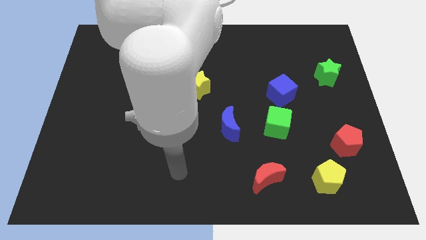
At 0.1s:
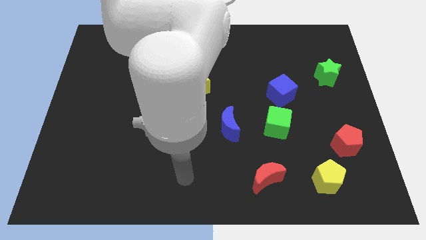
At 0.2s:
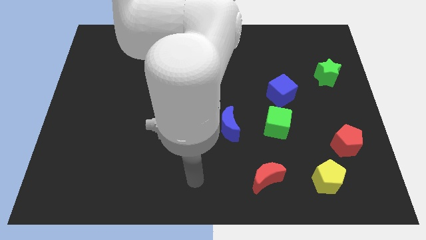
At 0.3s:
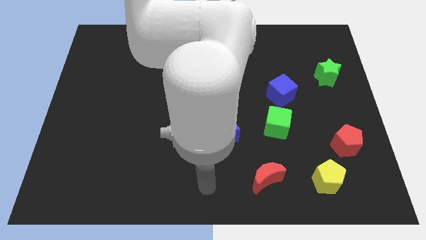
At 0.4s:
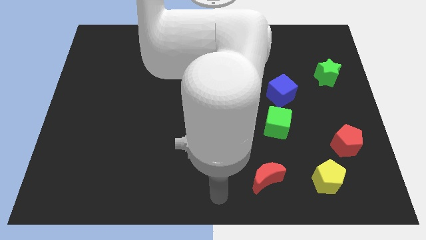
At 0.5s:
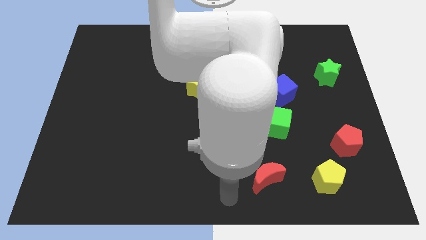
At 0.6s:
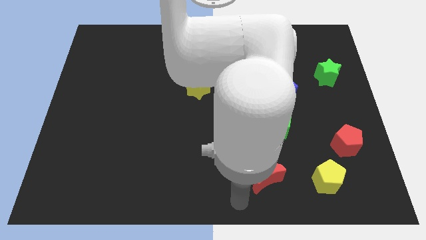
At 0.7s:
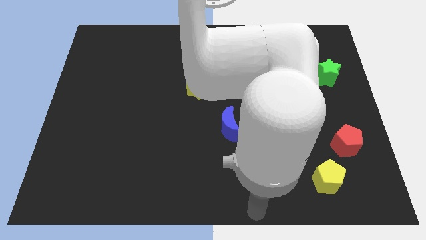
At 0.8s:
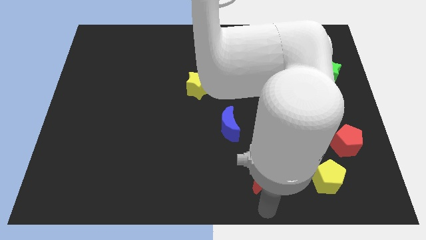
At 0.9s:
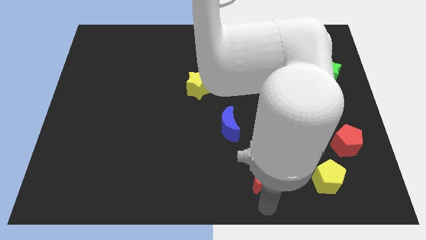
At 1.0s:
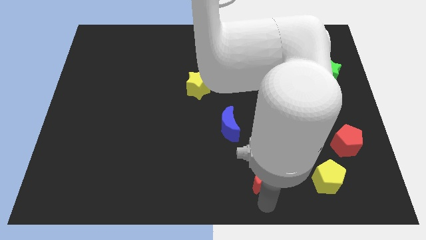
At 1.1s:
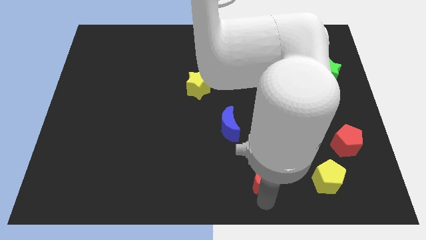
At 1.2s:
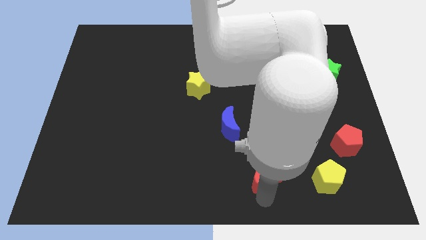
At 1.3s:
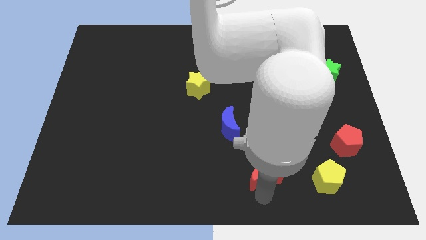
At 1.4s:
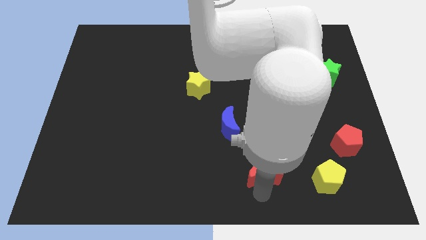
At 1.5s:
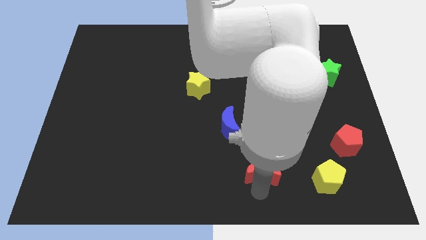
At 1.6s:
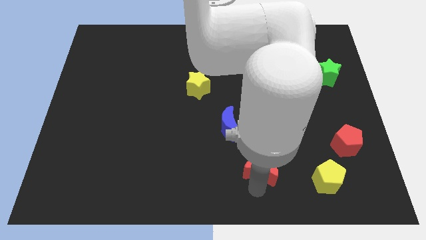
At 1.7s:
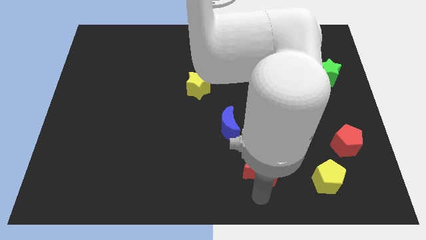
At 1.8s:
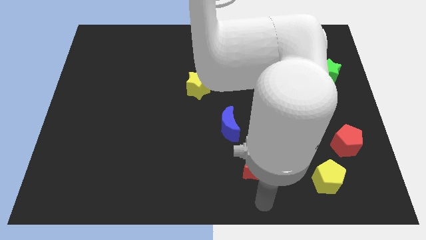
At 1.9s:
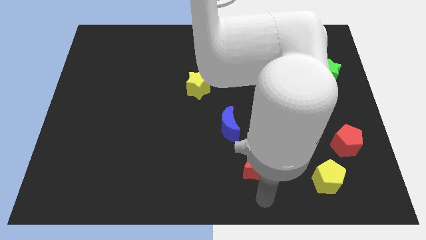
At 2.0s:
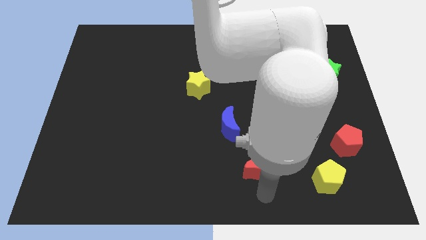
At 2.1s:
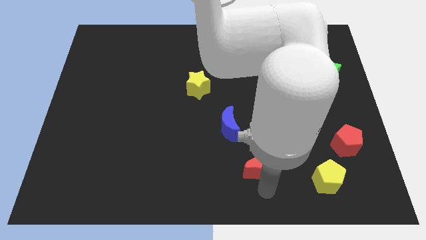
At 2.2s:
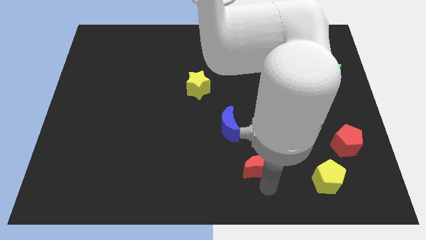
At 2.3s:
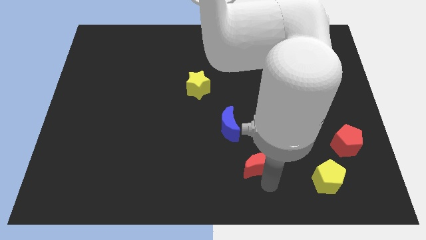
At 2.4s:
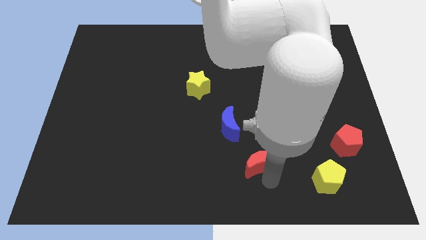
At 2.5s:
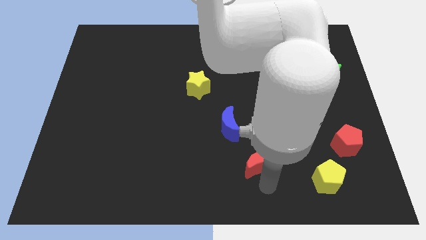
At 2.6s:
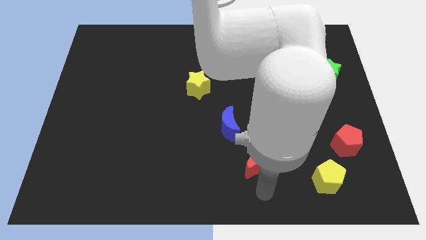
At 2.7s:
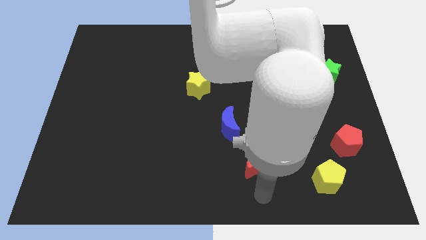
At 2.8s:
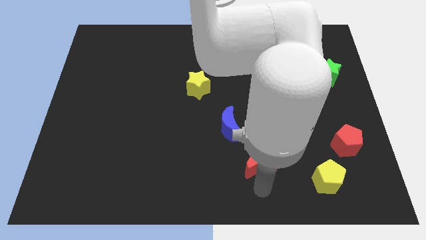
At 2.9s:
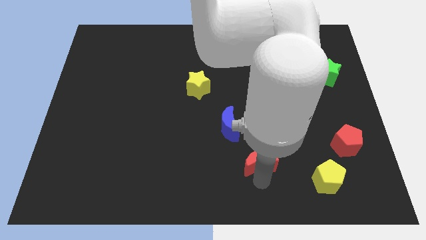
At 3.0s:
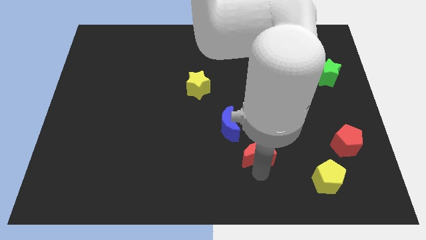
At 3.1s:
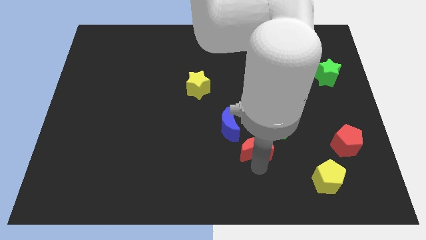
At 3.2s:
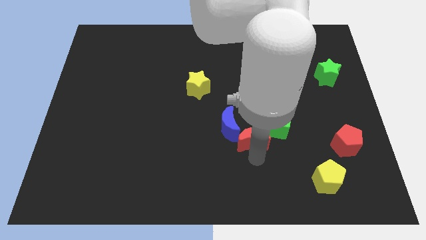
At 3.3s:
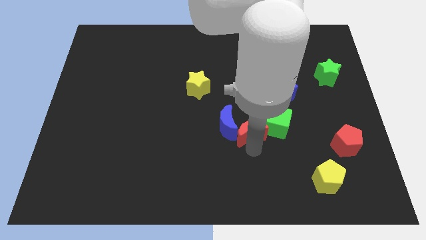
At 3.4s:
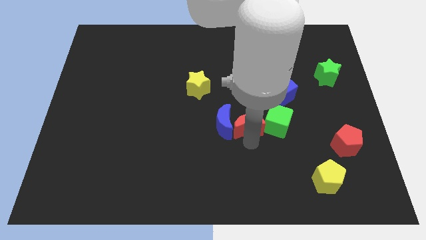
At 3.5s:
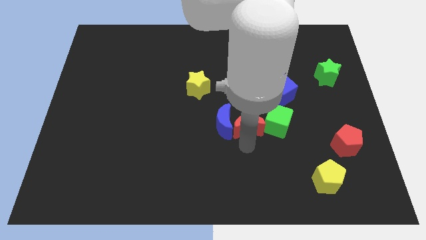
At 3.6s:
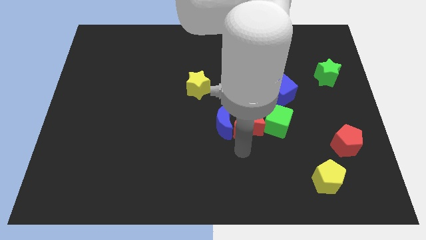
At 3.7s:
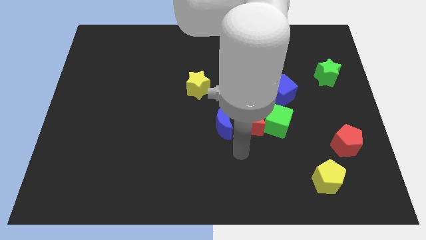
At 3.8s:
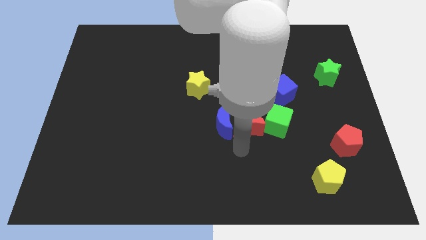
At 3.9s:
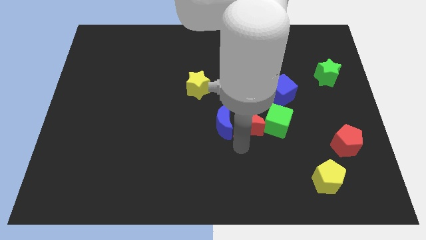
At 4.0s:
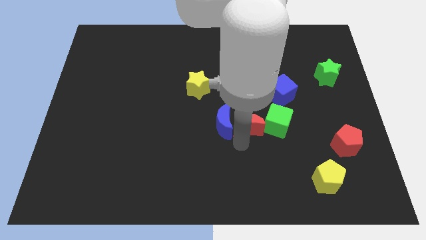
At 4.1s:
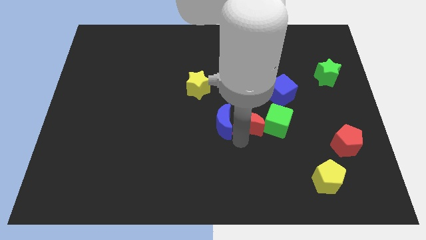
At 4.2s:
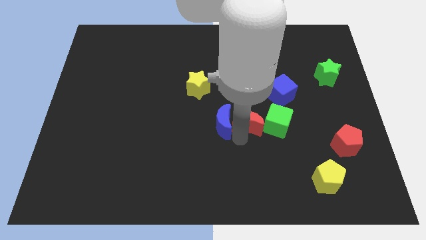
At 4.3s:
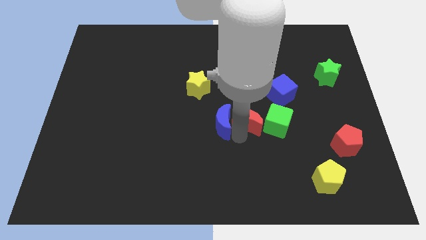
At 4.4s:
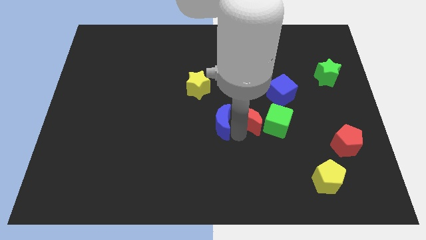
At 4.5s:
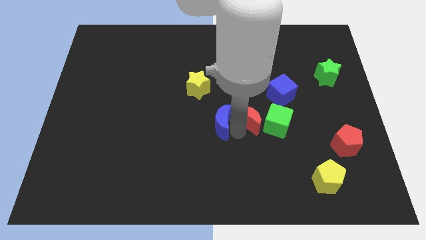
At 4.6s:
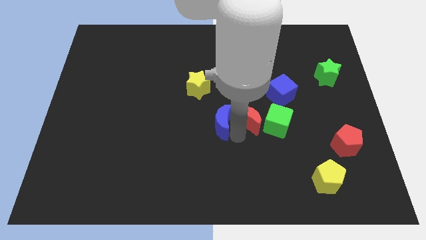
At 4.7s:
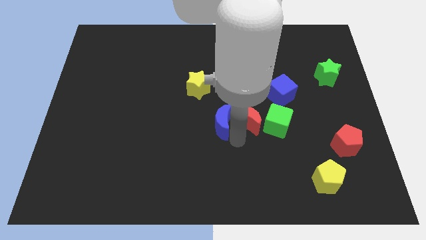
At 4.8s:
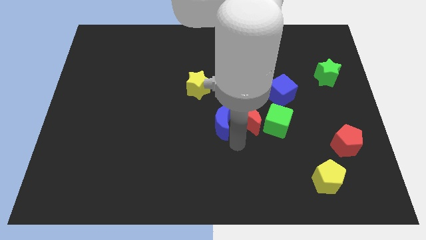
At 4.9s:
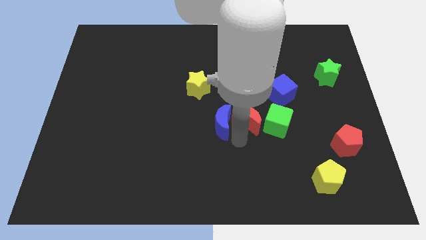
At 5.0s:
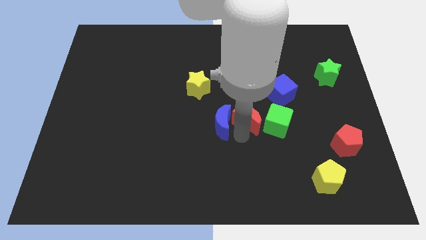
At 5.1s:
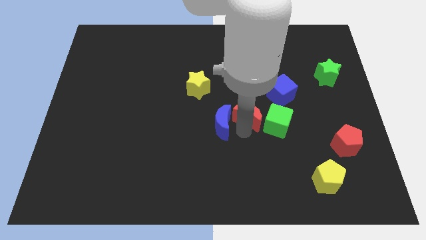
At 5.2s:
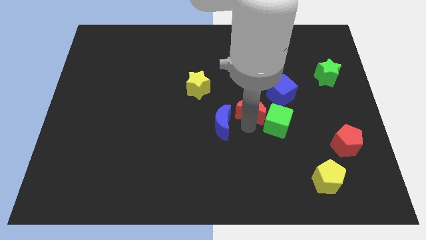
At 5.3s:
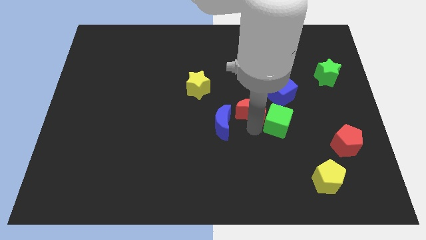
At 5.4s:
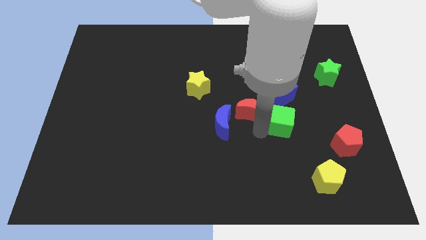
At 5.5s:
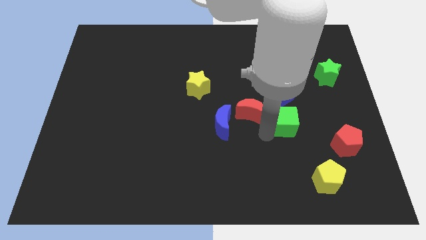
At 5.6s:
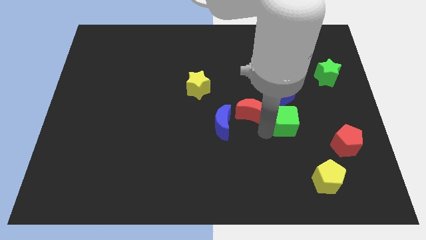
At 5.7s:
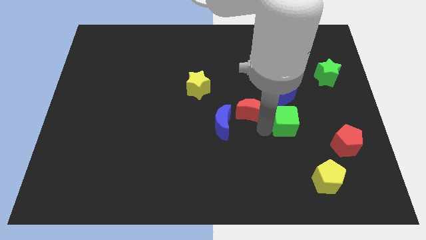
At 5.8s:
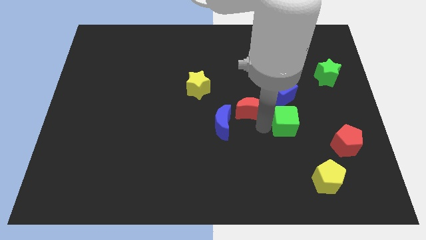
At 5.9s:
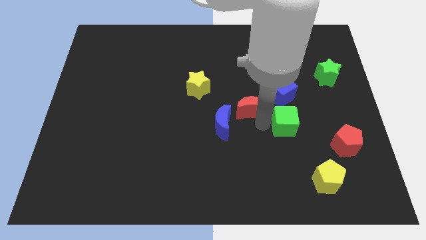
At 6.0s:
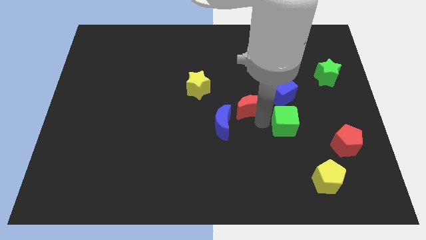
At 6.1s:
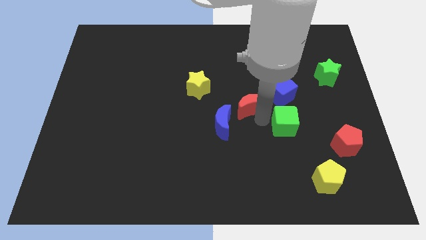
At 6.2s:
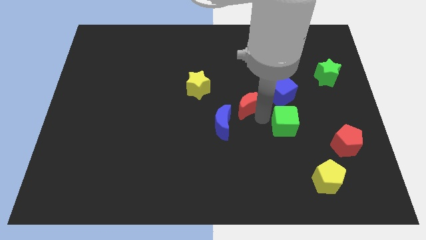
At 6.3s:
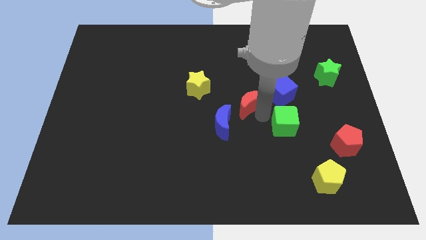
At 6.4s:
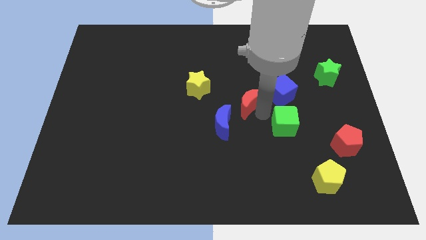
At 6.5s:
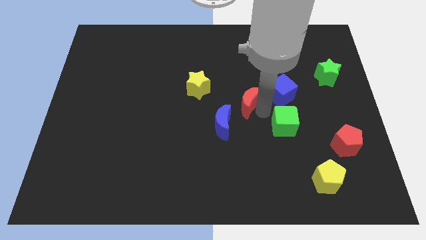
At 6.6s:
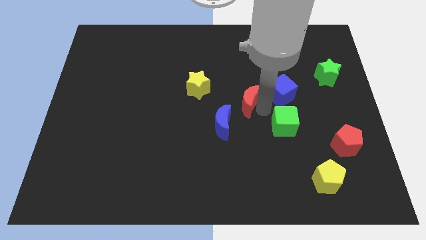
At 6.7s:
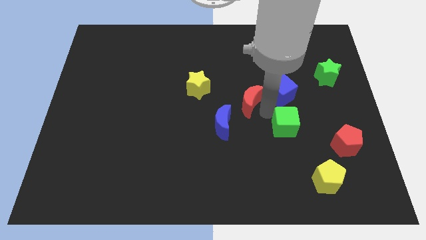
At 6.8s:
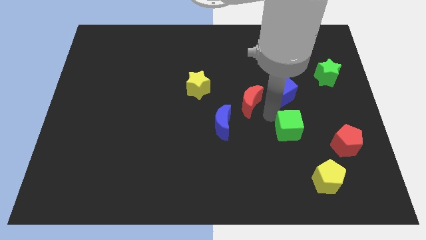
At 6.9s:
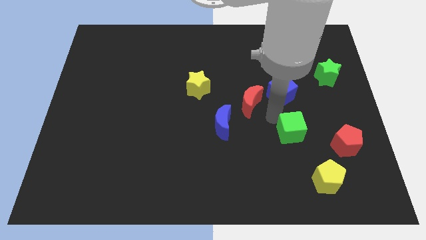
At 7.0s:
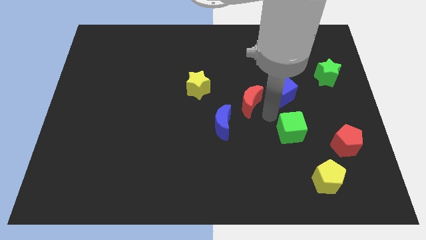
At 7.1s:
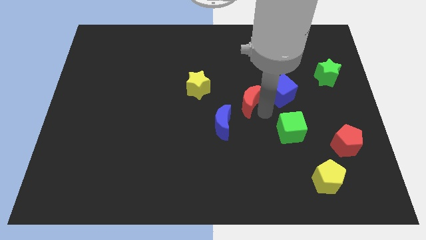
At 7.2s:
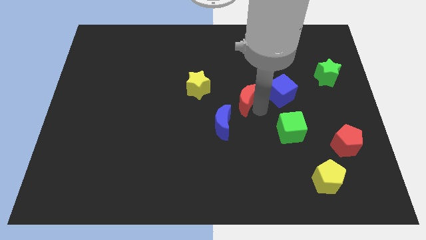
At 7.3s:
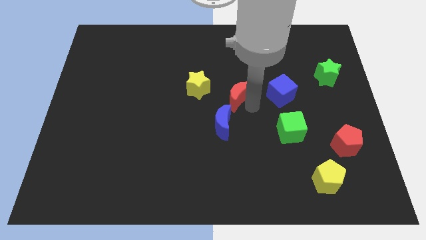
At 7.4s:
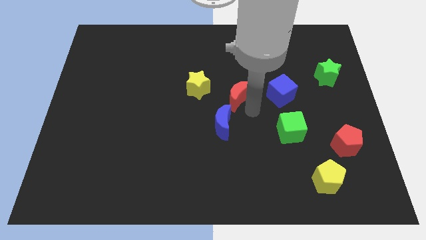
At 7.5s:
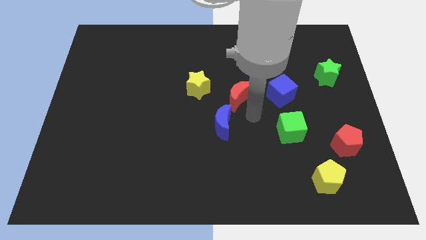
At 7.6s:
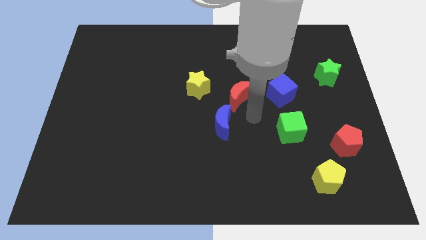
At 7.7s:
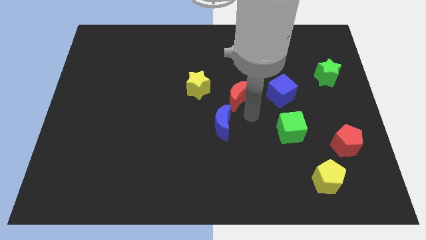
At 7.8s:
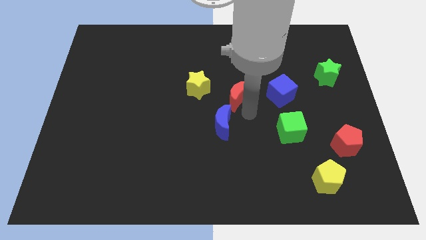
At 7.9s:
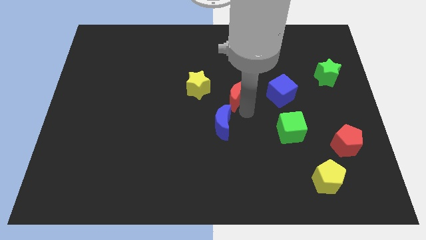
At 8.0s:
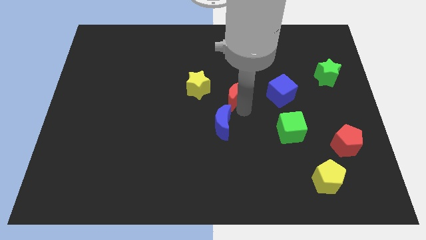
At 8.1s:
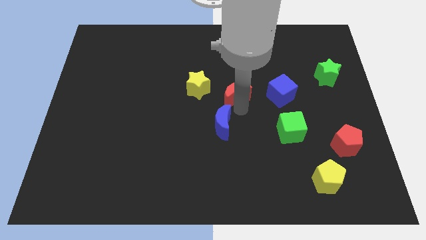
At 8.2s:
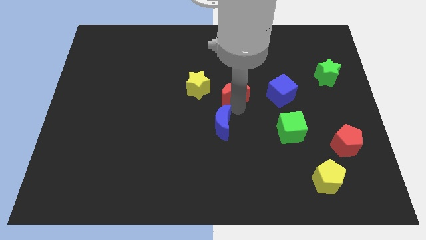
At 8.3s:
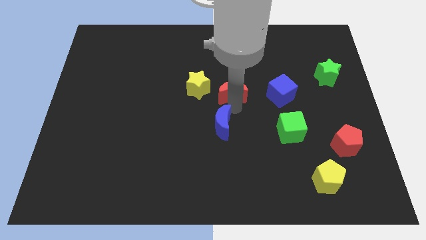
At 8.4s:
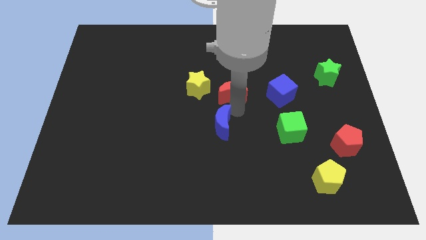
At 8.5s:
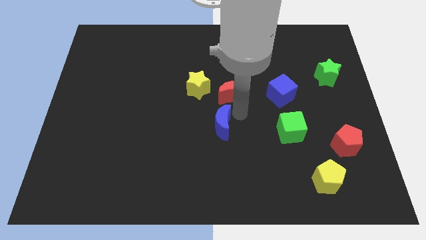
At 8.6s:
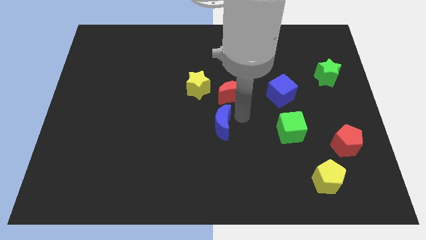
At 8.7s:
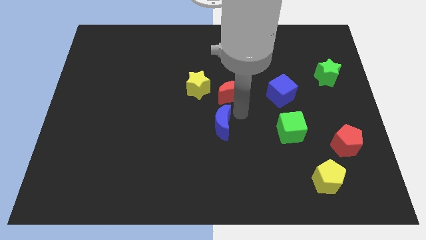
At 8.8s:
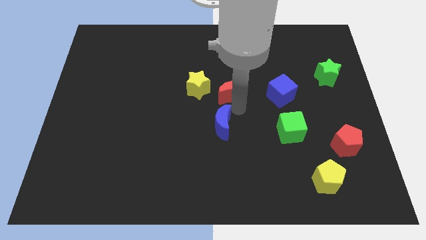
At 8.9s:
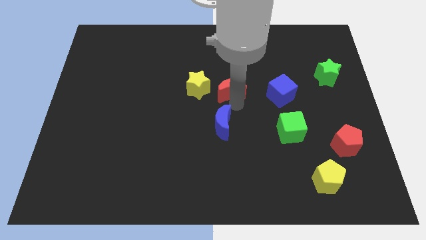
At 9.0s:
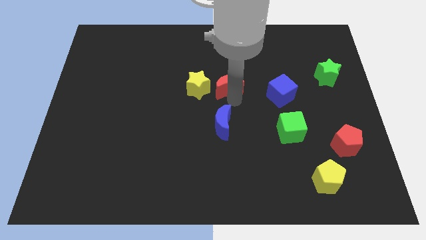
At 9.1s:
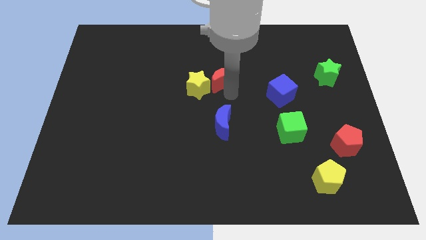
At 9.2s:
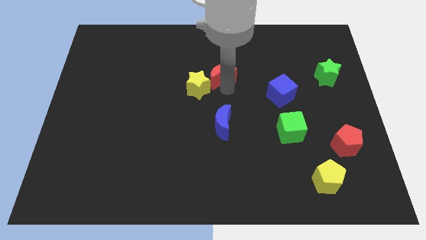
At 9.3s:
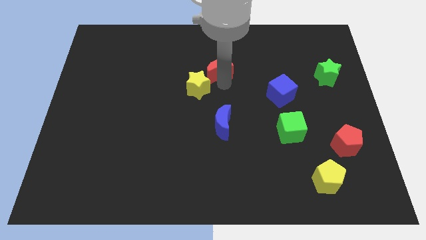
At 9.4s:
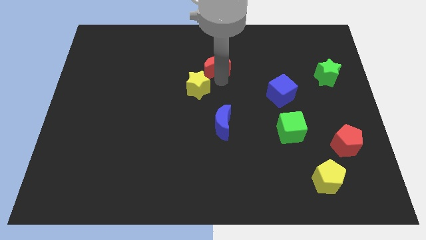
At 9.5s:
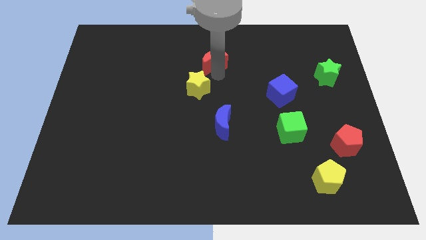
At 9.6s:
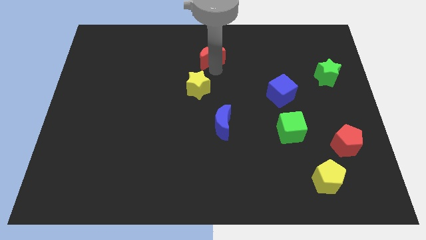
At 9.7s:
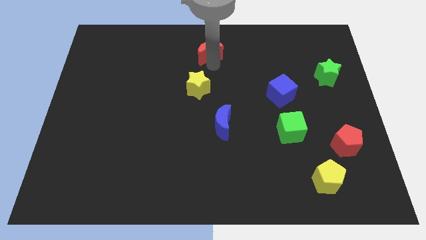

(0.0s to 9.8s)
put the red moon to the top side
